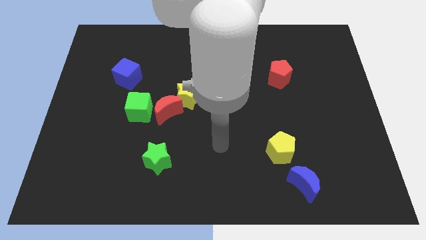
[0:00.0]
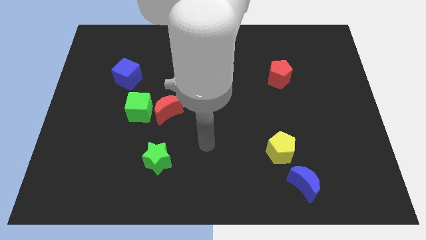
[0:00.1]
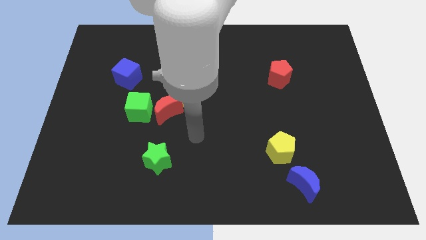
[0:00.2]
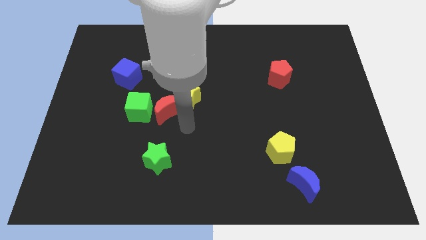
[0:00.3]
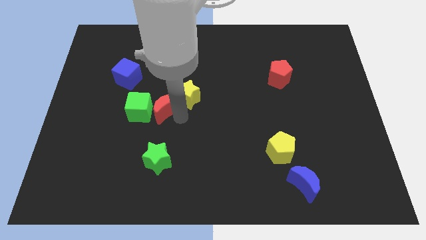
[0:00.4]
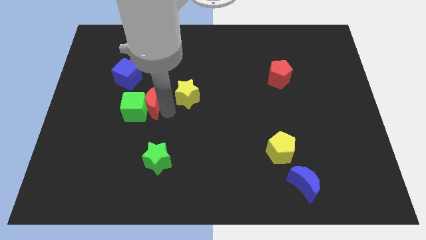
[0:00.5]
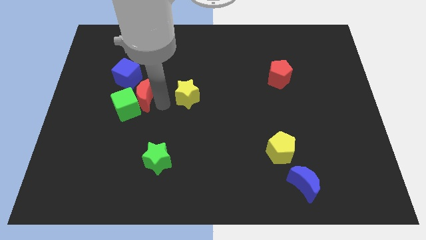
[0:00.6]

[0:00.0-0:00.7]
move the yellow star away from the red moon

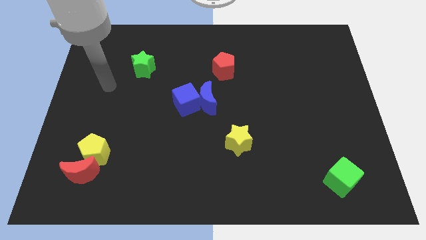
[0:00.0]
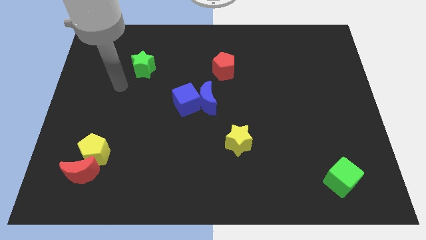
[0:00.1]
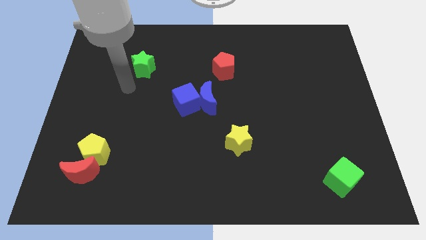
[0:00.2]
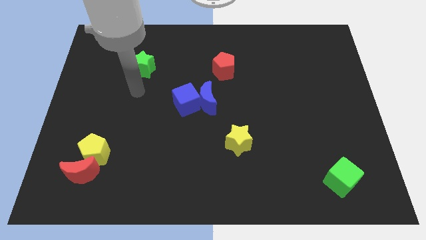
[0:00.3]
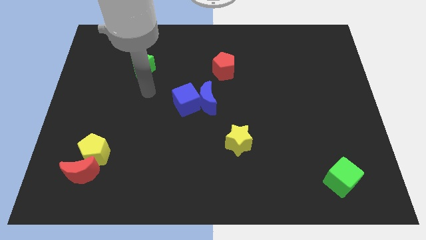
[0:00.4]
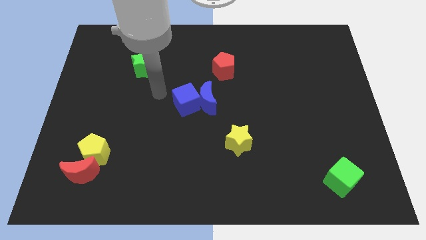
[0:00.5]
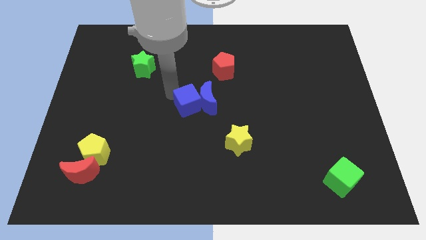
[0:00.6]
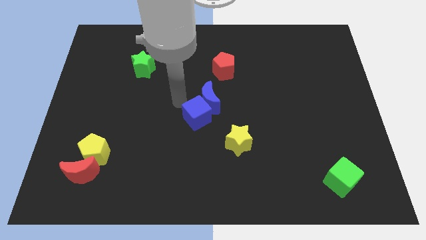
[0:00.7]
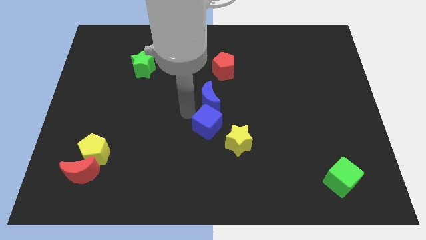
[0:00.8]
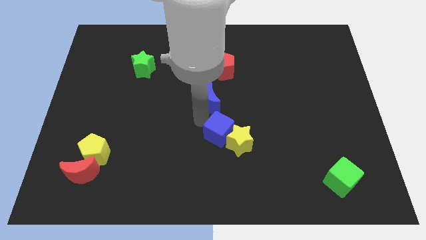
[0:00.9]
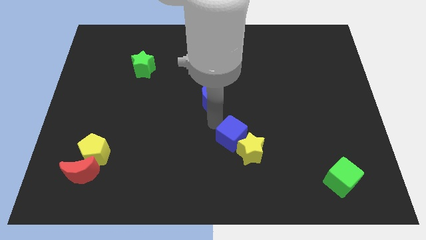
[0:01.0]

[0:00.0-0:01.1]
separate the blue moon from the blue cube

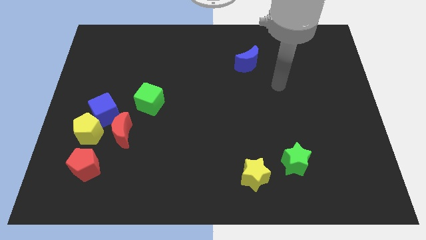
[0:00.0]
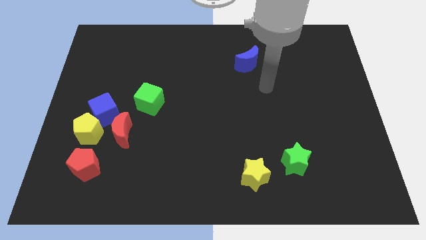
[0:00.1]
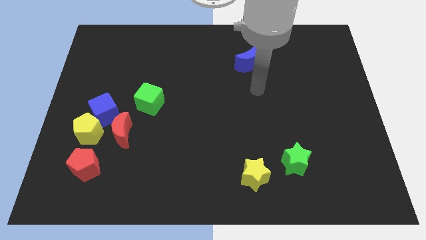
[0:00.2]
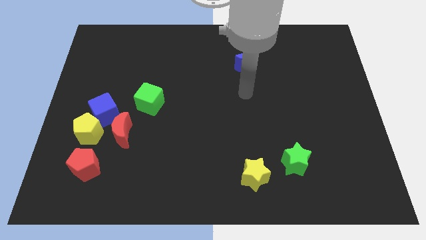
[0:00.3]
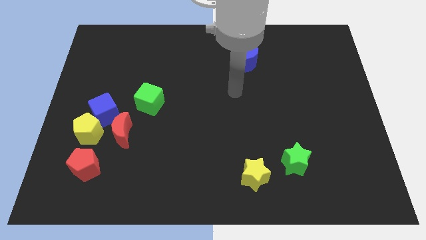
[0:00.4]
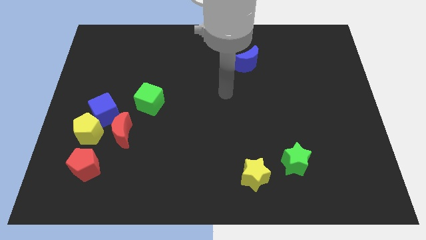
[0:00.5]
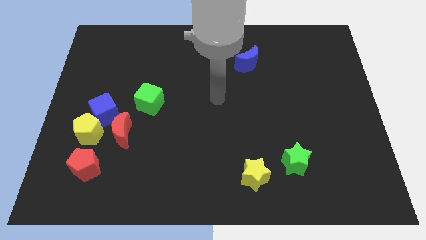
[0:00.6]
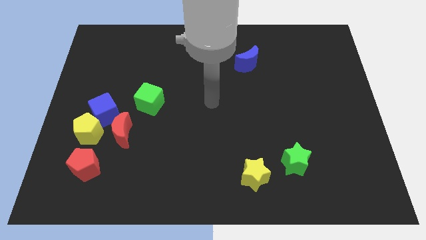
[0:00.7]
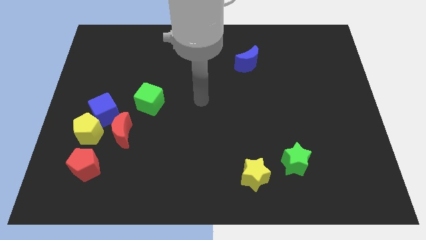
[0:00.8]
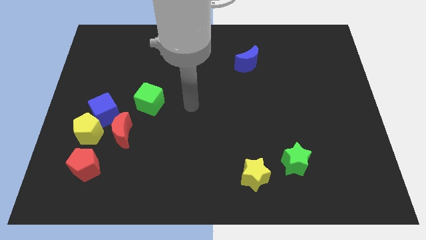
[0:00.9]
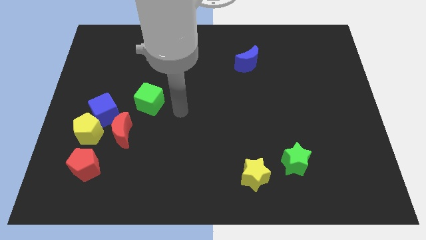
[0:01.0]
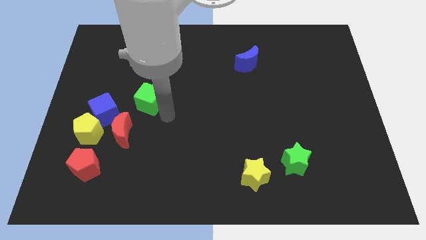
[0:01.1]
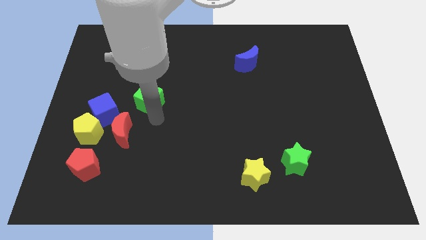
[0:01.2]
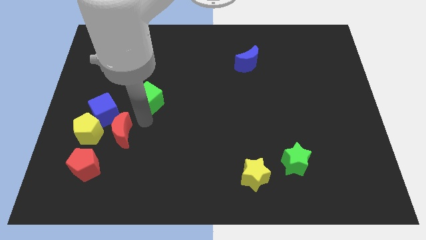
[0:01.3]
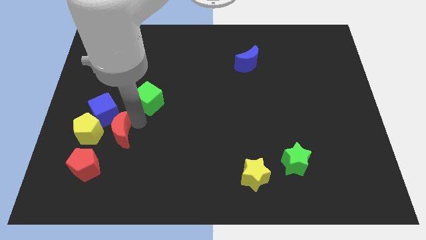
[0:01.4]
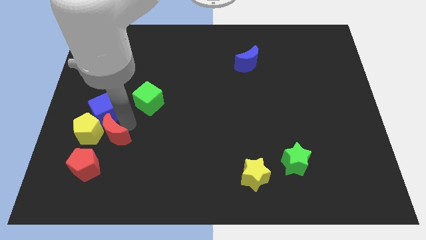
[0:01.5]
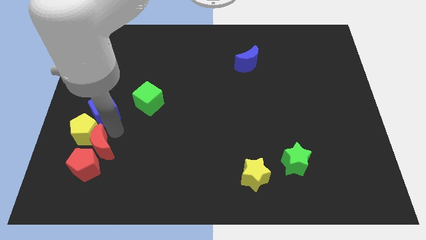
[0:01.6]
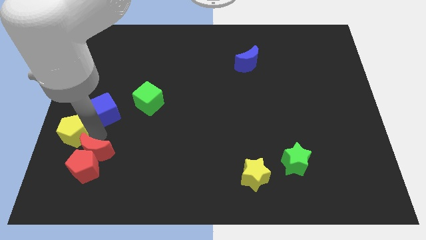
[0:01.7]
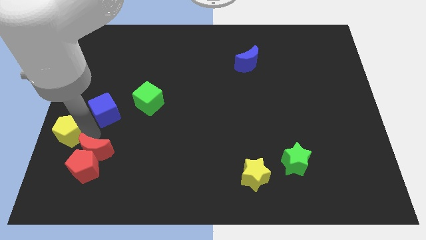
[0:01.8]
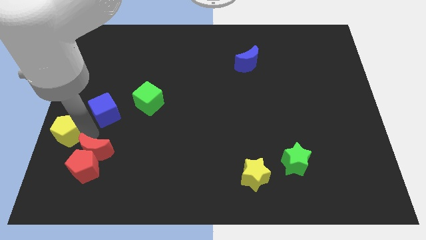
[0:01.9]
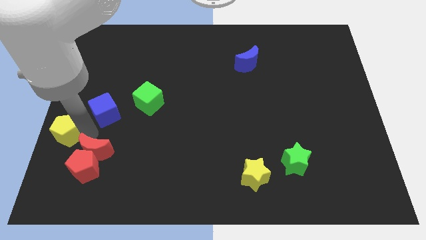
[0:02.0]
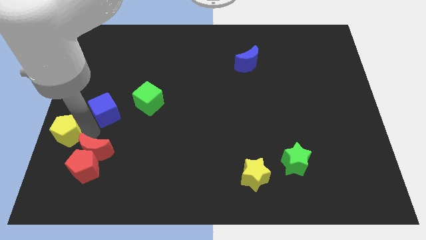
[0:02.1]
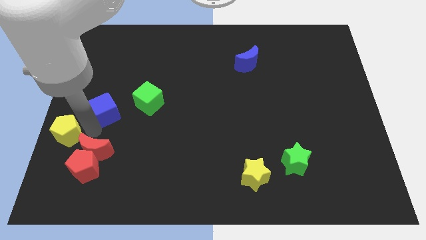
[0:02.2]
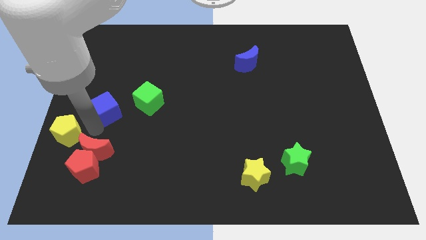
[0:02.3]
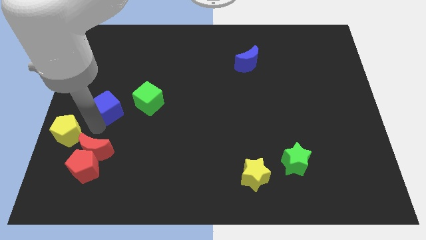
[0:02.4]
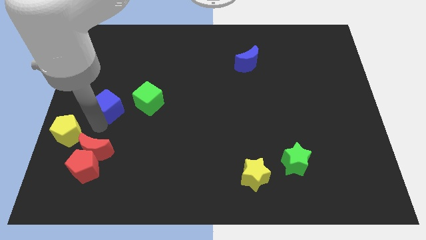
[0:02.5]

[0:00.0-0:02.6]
separate the blue cube from the yellow pentagon and red moon

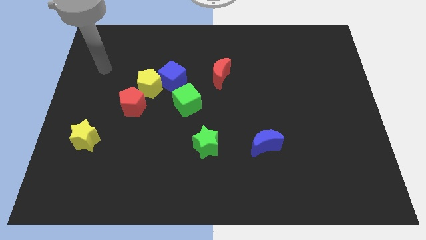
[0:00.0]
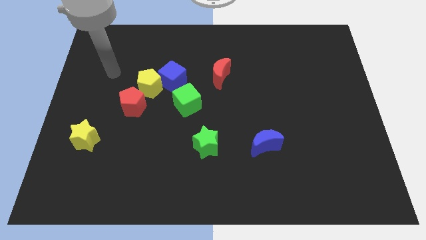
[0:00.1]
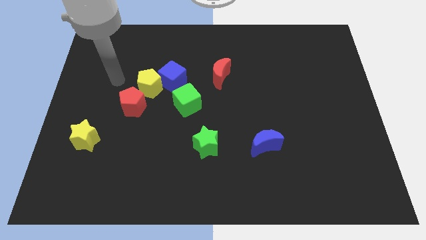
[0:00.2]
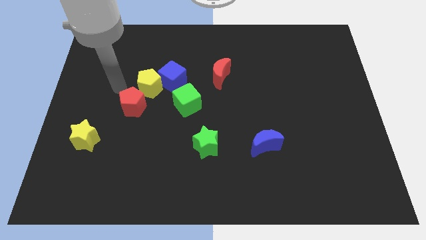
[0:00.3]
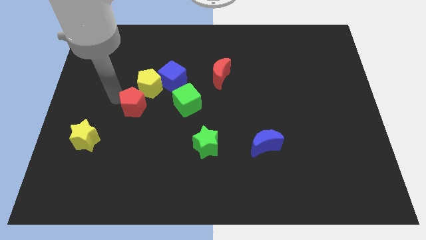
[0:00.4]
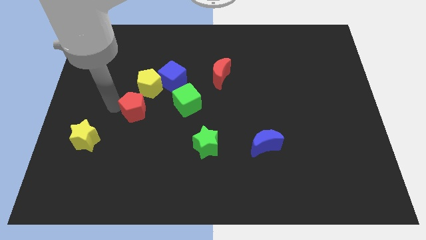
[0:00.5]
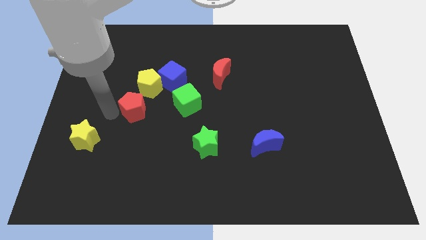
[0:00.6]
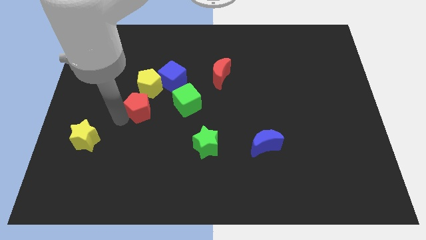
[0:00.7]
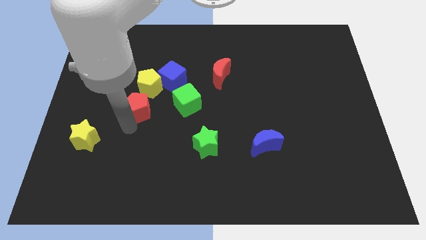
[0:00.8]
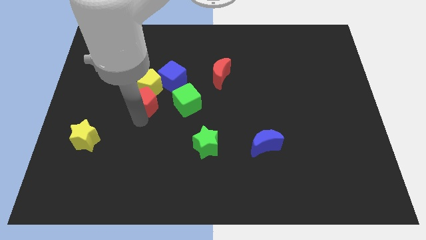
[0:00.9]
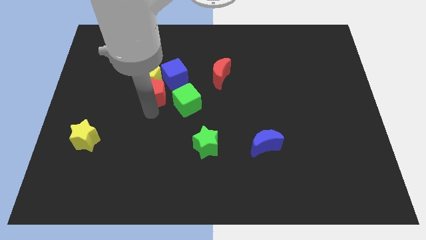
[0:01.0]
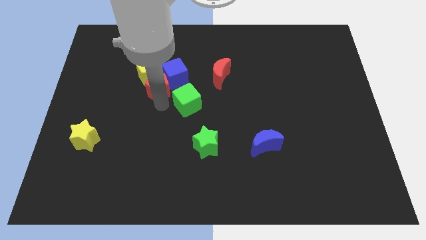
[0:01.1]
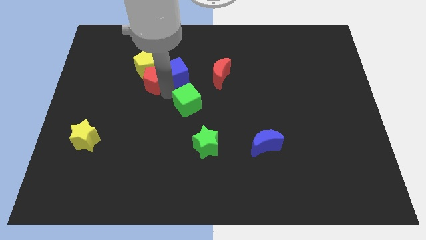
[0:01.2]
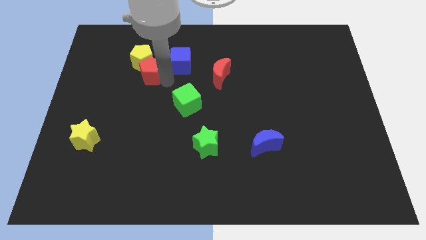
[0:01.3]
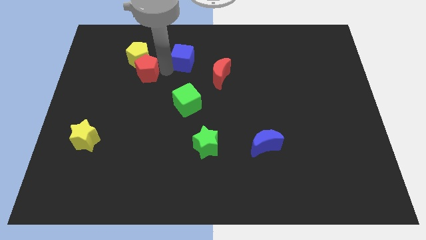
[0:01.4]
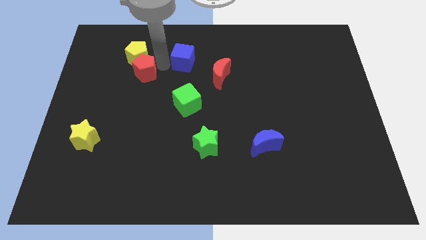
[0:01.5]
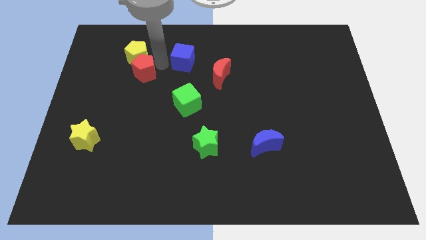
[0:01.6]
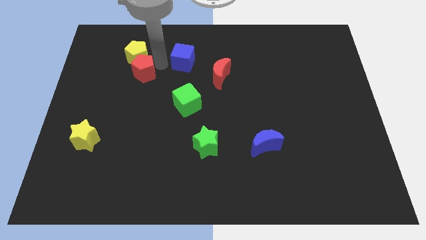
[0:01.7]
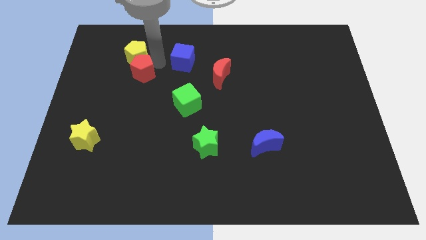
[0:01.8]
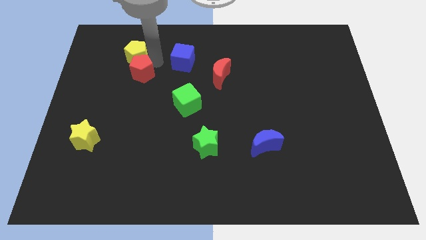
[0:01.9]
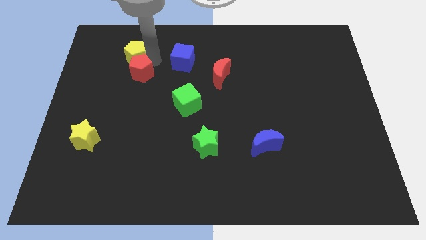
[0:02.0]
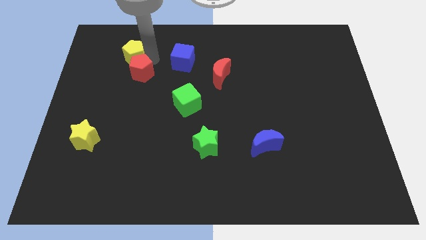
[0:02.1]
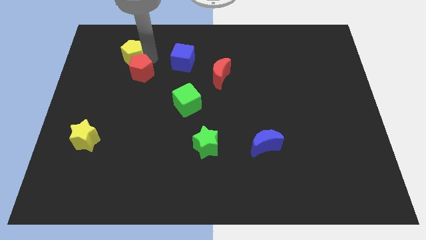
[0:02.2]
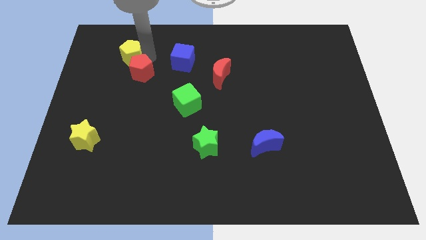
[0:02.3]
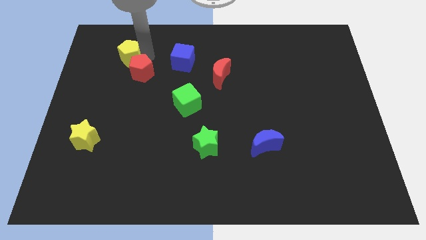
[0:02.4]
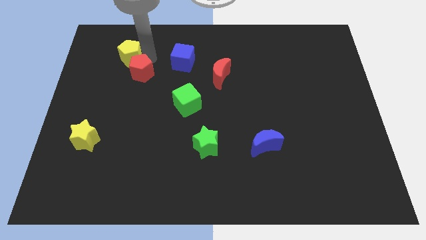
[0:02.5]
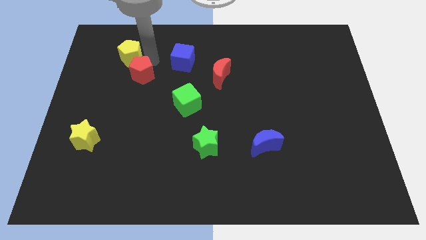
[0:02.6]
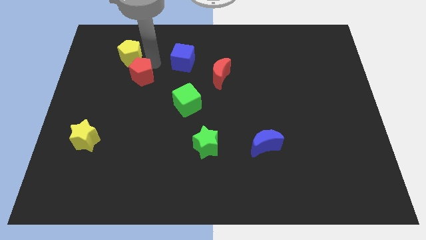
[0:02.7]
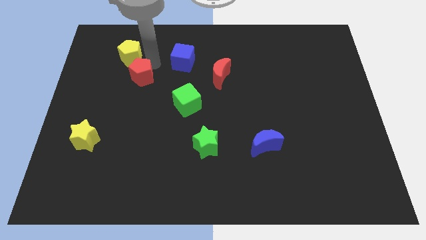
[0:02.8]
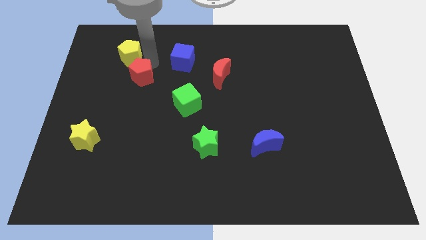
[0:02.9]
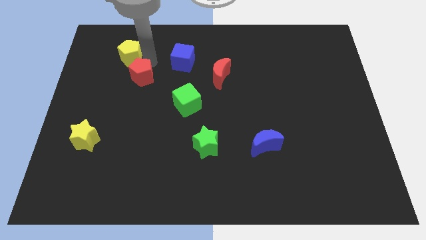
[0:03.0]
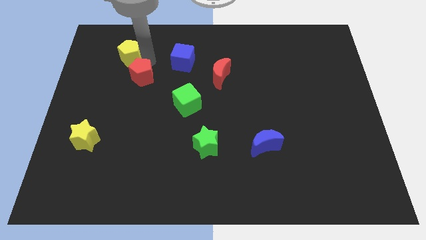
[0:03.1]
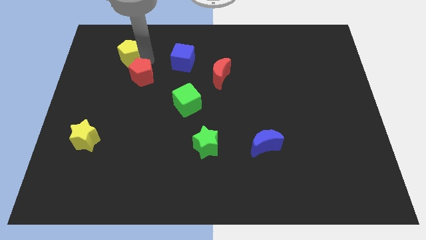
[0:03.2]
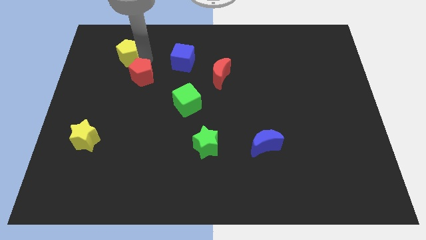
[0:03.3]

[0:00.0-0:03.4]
pull the yellow pentagon apart from the blue cube and red pentagon

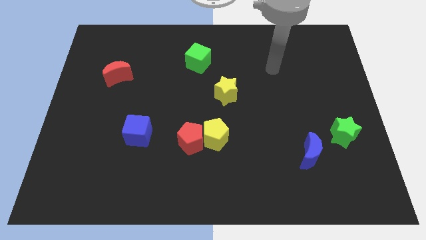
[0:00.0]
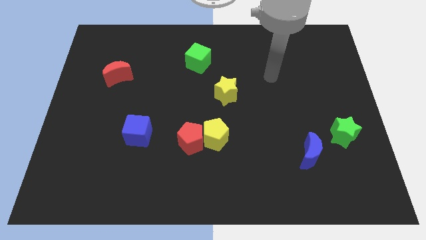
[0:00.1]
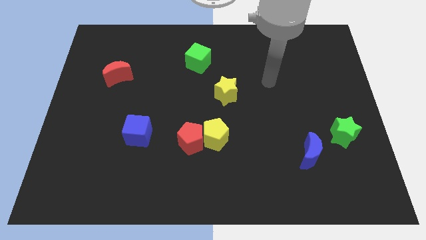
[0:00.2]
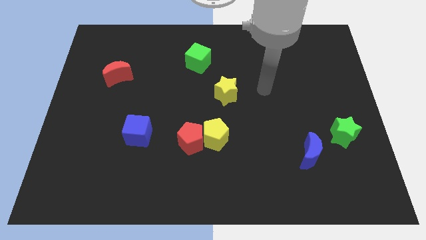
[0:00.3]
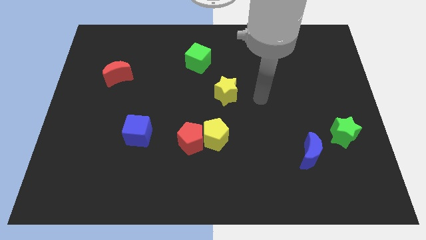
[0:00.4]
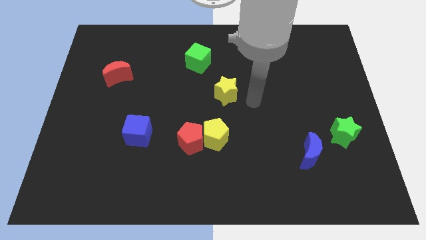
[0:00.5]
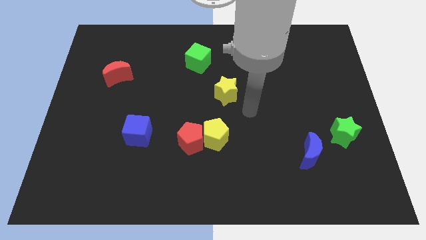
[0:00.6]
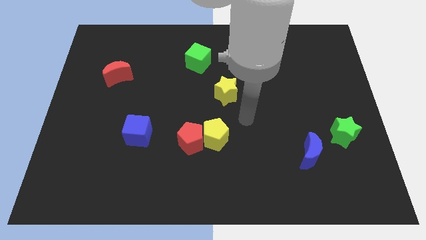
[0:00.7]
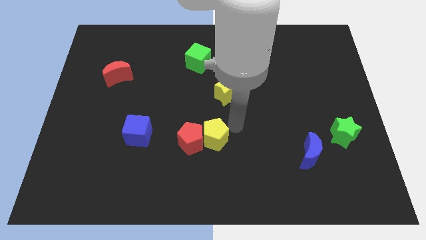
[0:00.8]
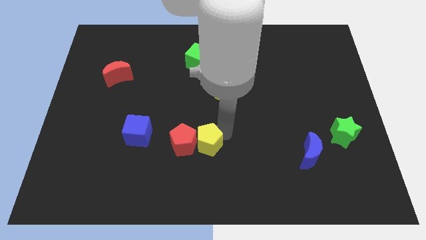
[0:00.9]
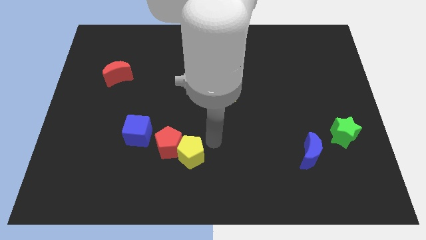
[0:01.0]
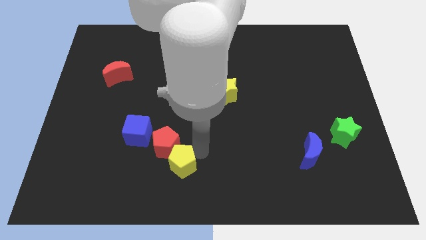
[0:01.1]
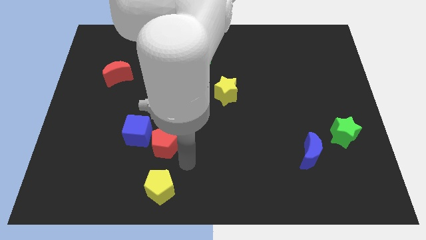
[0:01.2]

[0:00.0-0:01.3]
separate the red pentagon from the yellow pentagon

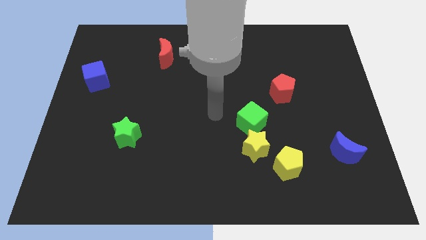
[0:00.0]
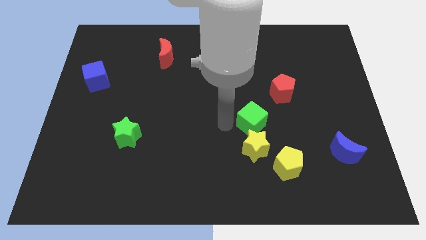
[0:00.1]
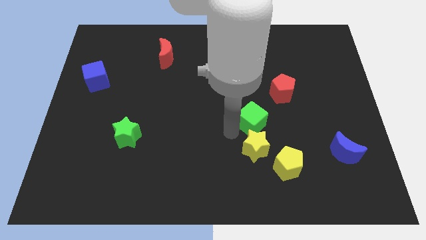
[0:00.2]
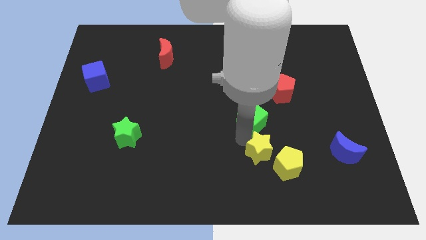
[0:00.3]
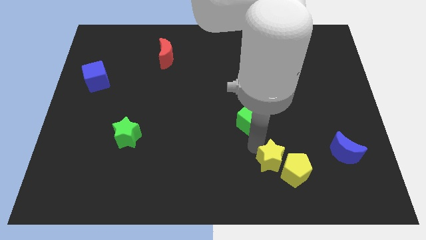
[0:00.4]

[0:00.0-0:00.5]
pull the green cube apart from the yellow star
